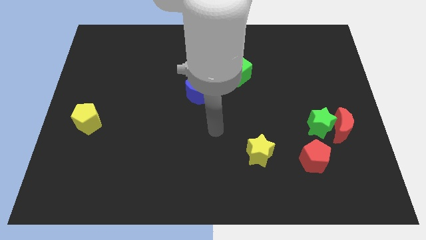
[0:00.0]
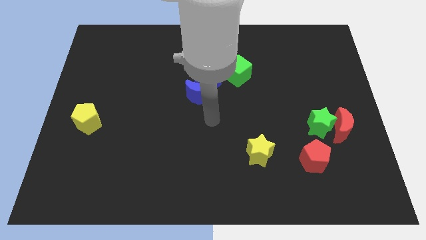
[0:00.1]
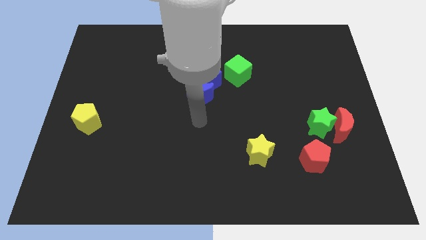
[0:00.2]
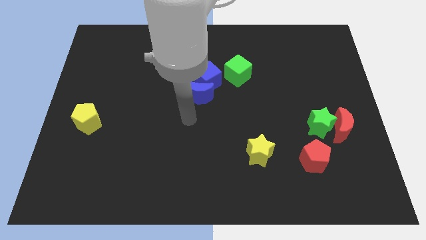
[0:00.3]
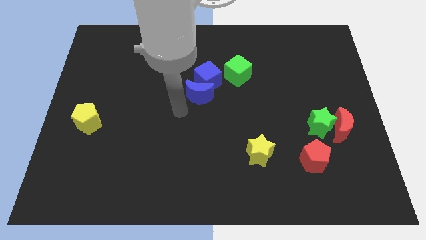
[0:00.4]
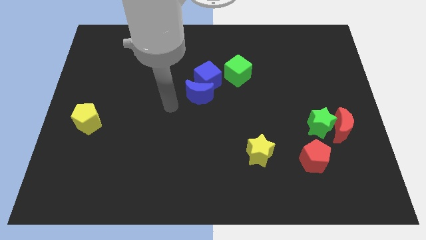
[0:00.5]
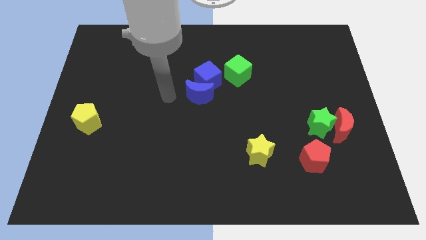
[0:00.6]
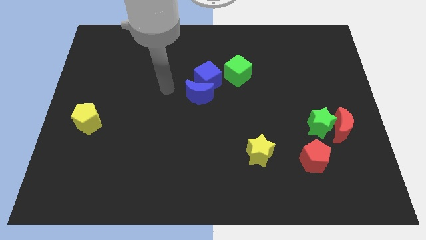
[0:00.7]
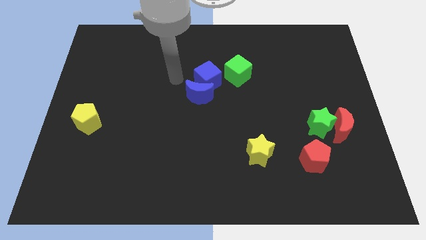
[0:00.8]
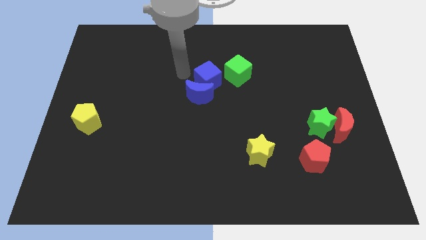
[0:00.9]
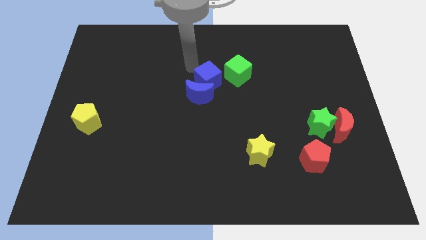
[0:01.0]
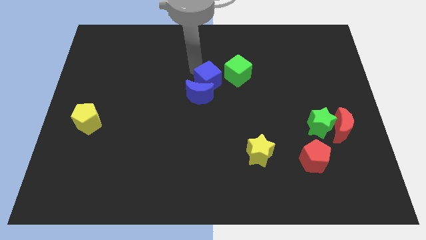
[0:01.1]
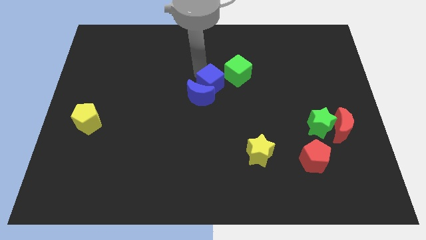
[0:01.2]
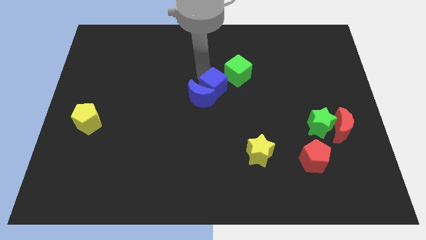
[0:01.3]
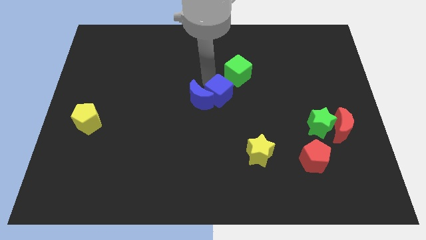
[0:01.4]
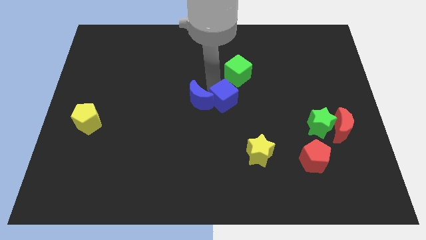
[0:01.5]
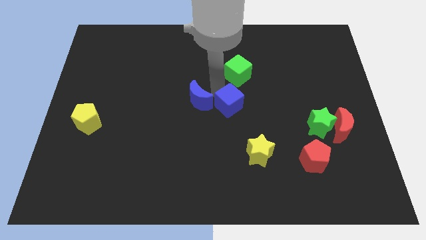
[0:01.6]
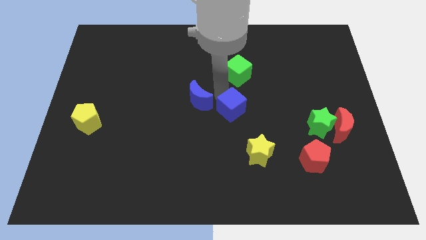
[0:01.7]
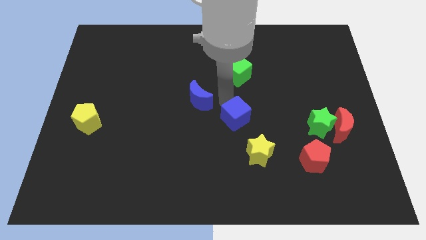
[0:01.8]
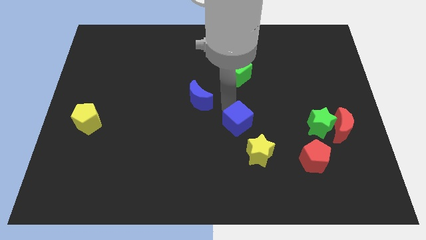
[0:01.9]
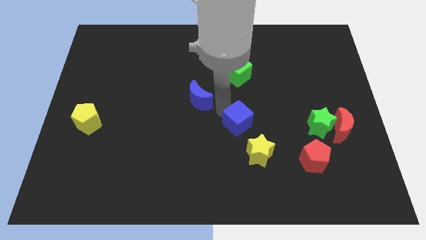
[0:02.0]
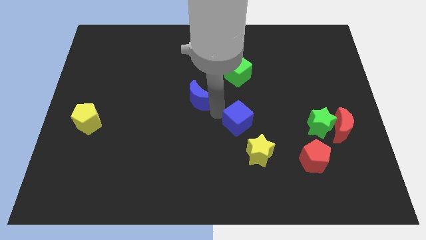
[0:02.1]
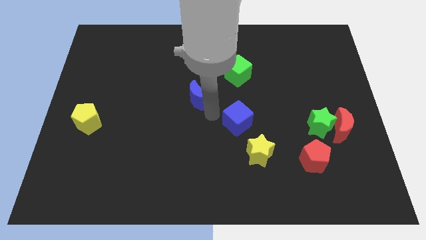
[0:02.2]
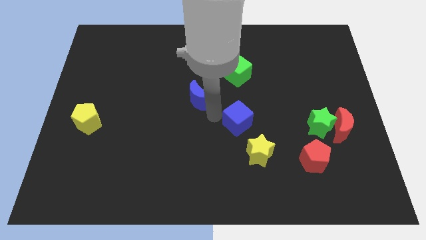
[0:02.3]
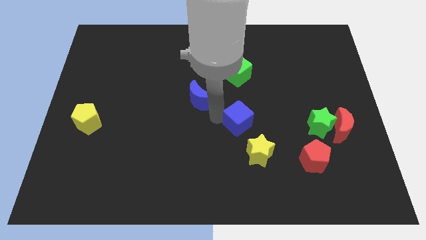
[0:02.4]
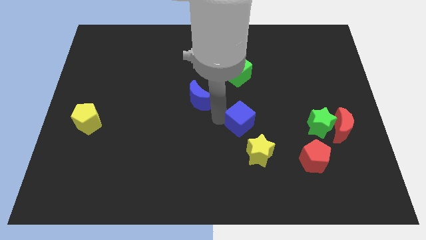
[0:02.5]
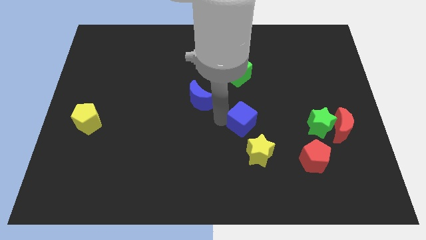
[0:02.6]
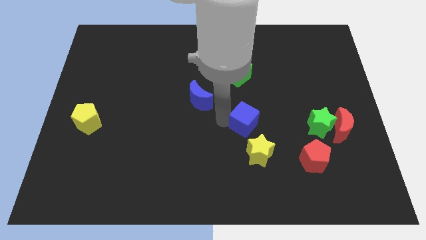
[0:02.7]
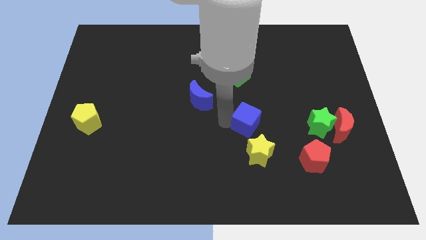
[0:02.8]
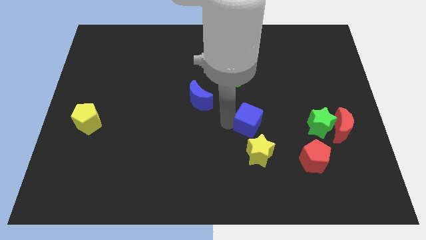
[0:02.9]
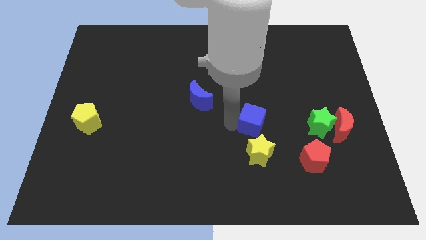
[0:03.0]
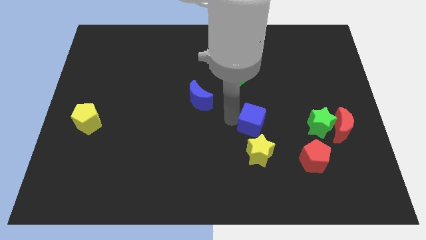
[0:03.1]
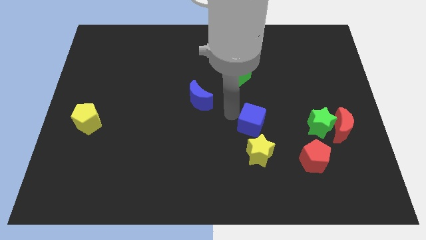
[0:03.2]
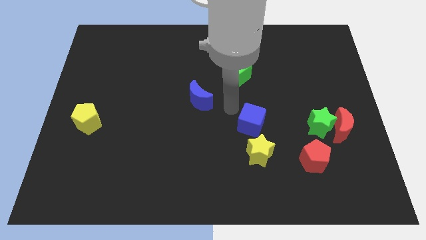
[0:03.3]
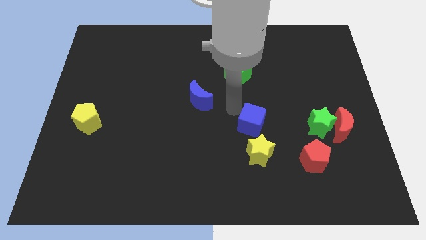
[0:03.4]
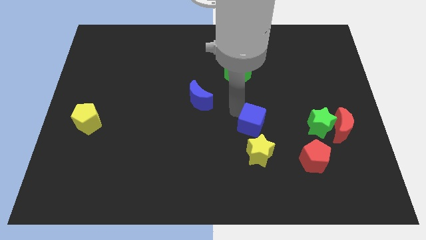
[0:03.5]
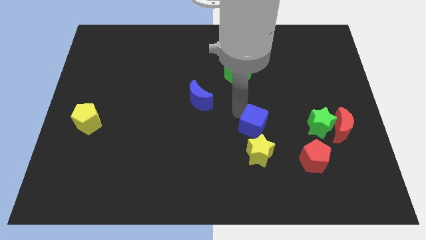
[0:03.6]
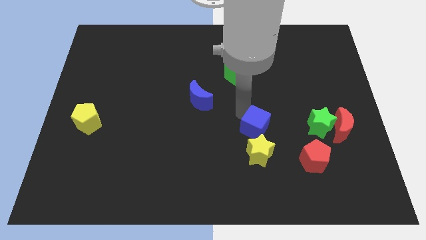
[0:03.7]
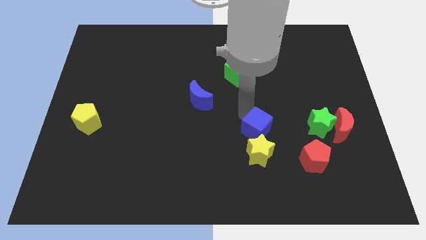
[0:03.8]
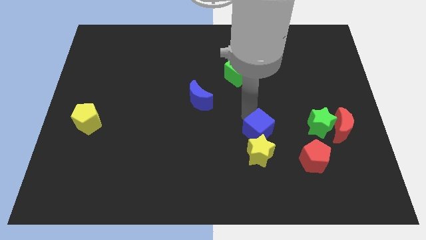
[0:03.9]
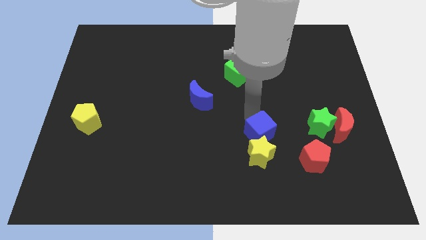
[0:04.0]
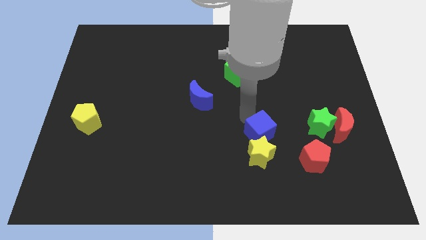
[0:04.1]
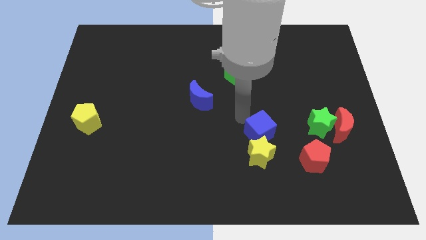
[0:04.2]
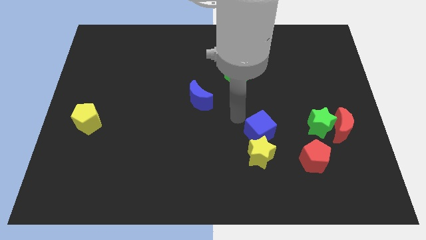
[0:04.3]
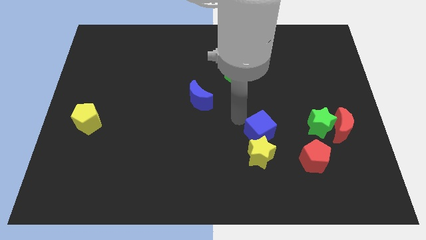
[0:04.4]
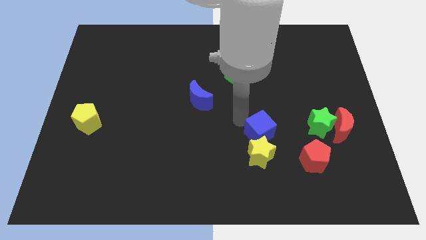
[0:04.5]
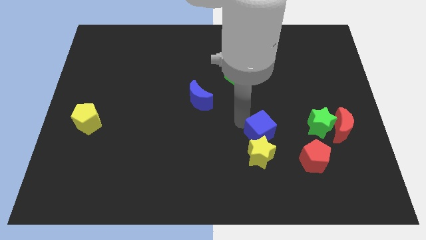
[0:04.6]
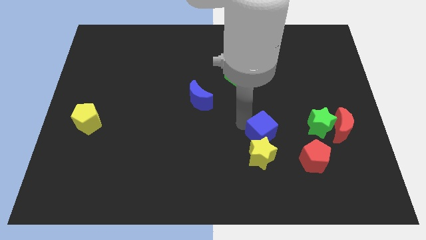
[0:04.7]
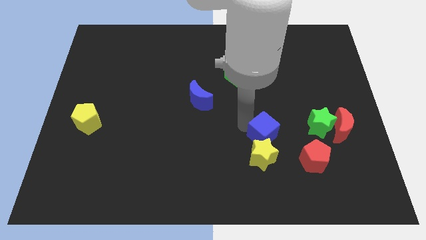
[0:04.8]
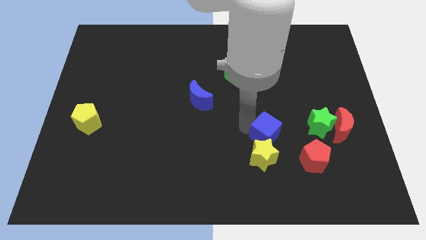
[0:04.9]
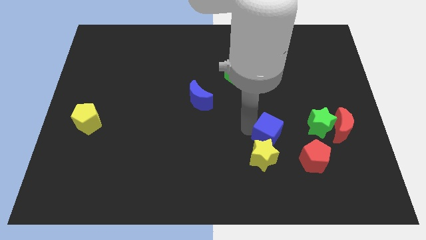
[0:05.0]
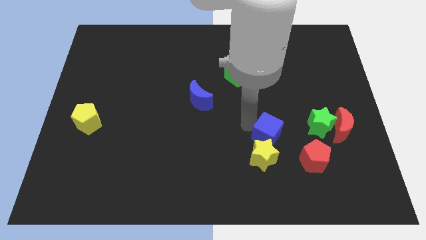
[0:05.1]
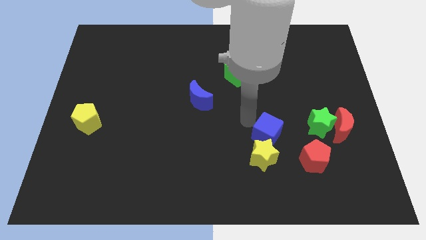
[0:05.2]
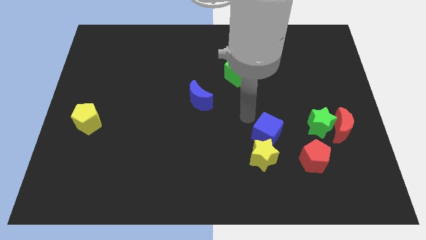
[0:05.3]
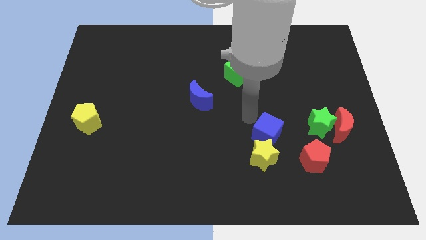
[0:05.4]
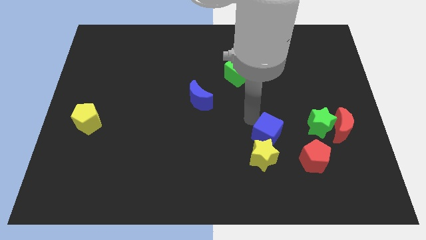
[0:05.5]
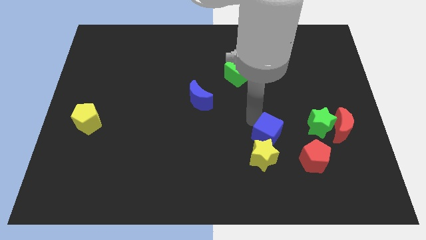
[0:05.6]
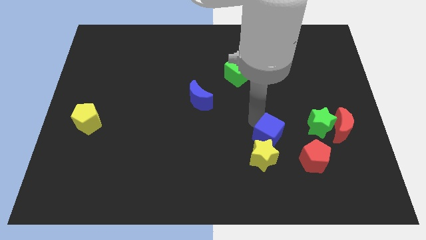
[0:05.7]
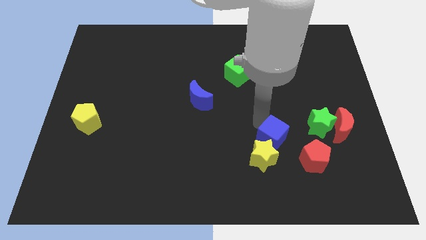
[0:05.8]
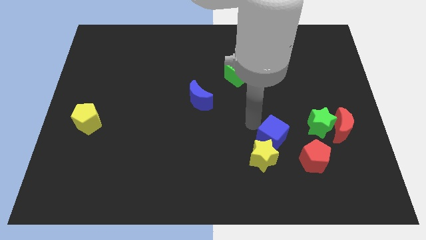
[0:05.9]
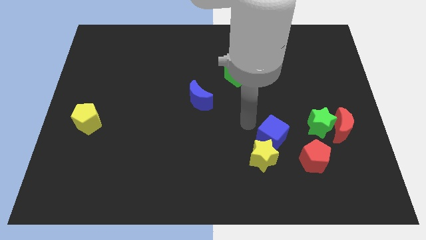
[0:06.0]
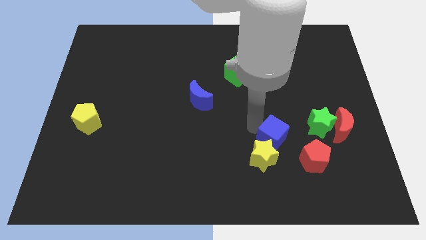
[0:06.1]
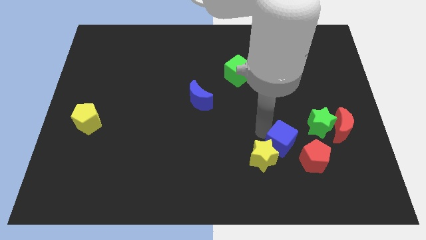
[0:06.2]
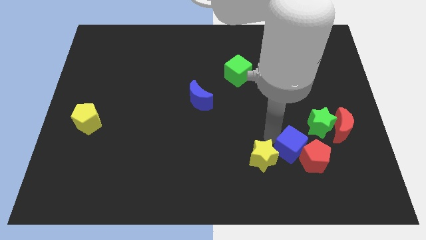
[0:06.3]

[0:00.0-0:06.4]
move the blue cube to the red pentagon

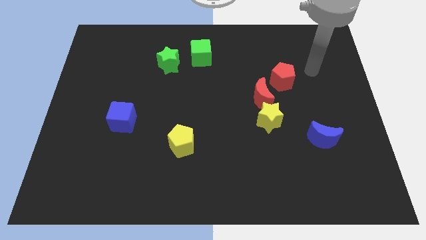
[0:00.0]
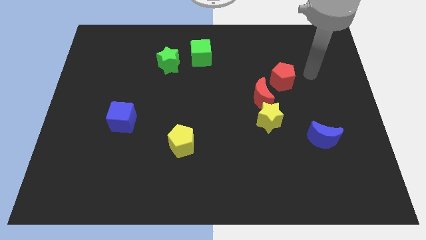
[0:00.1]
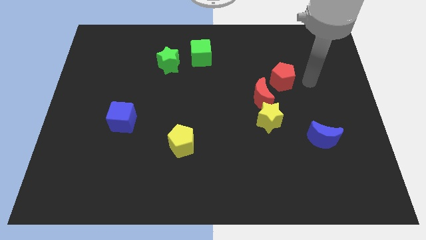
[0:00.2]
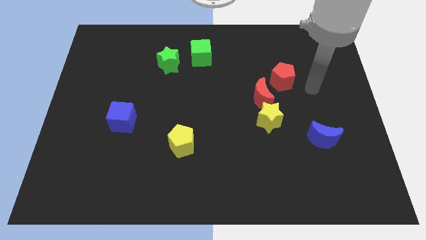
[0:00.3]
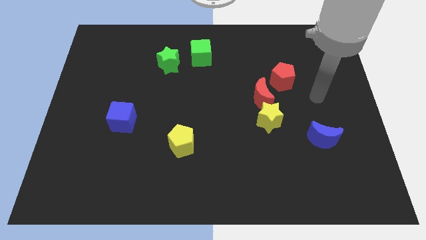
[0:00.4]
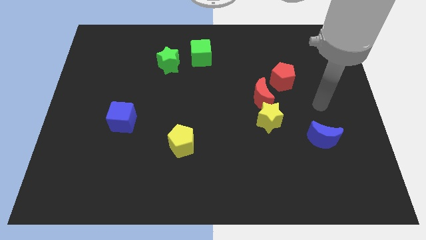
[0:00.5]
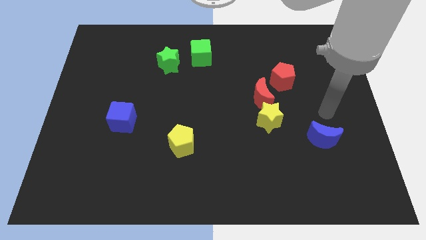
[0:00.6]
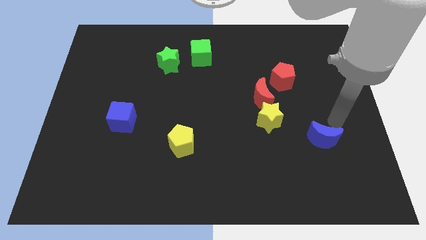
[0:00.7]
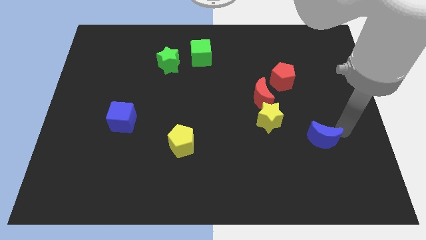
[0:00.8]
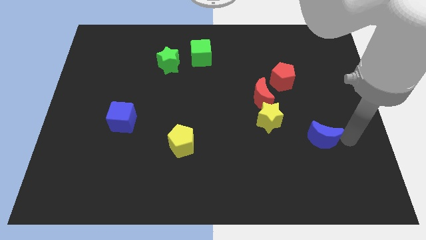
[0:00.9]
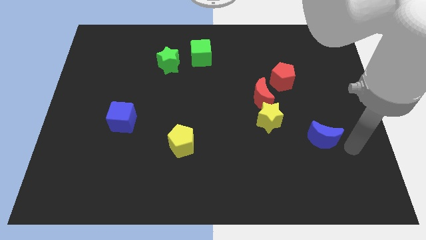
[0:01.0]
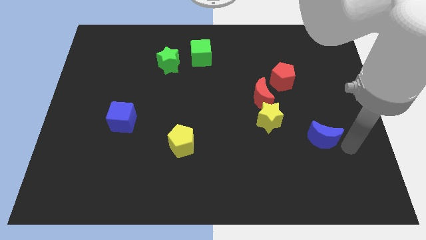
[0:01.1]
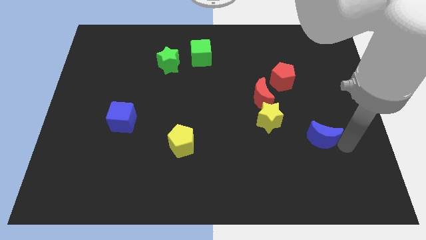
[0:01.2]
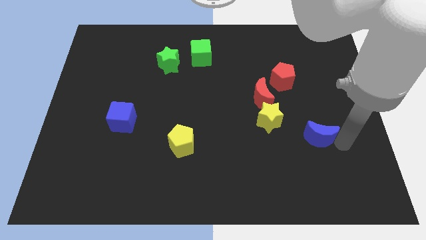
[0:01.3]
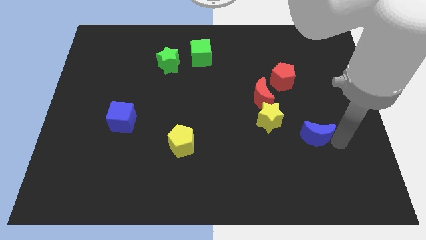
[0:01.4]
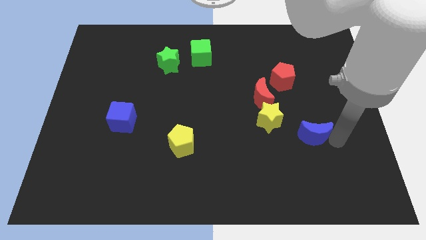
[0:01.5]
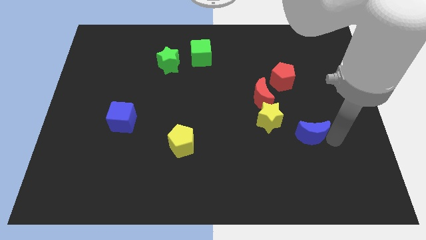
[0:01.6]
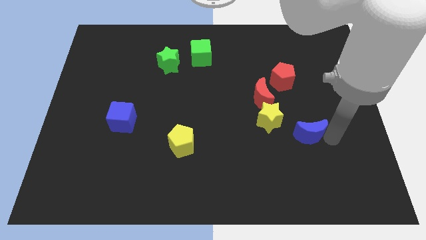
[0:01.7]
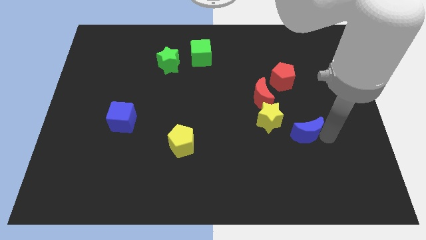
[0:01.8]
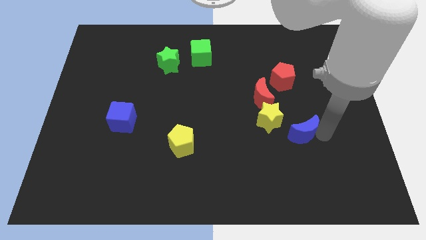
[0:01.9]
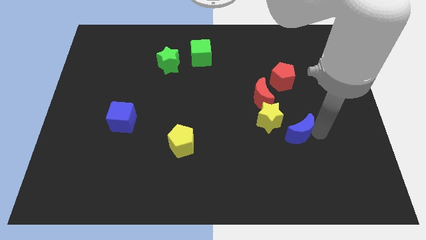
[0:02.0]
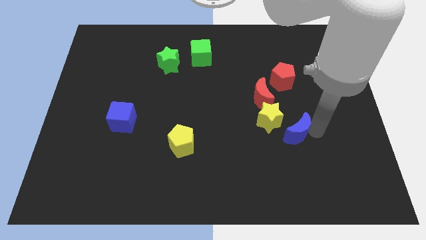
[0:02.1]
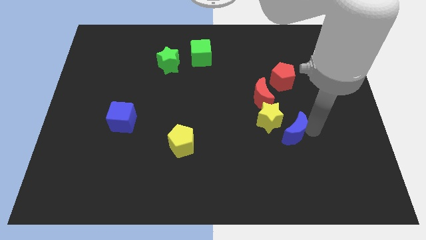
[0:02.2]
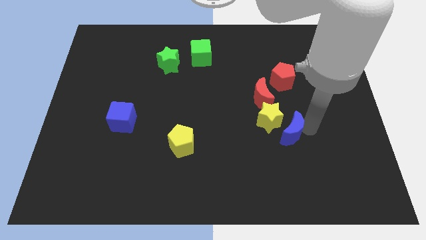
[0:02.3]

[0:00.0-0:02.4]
move the blue moon to the yellow star
